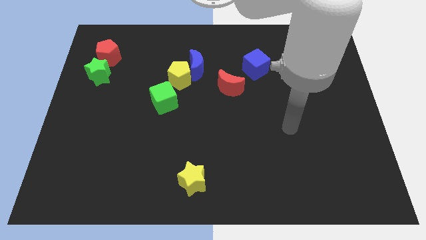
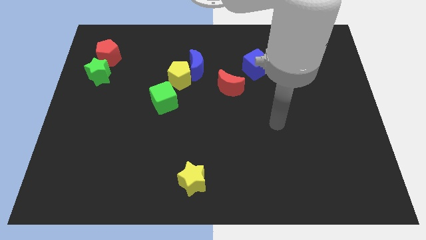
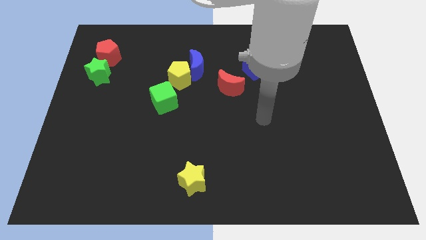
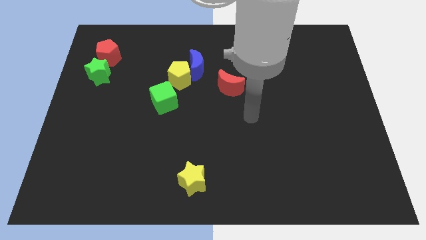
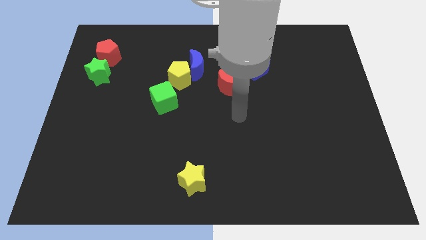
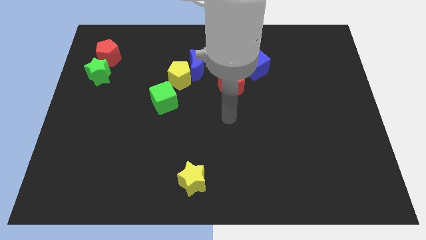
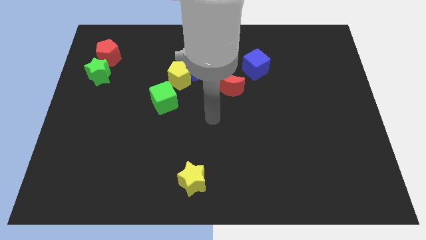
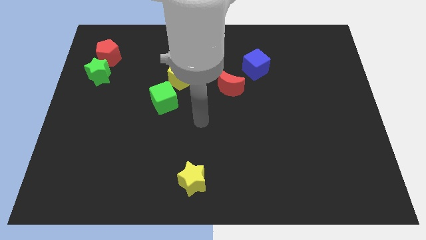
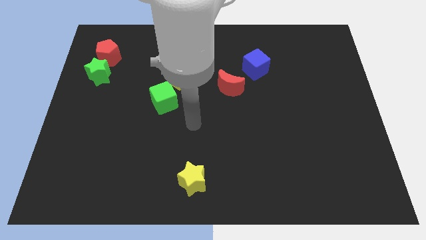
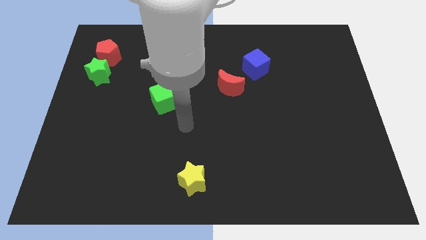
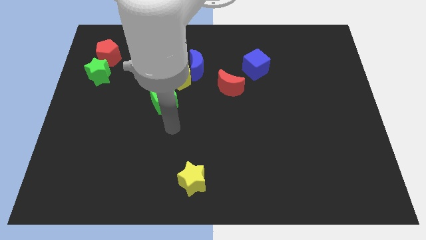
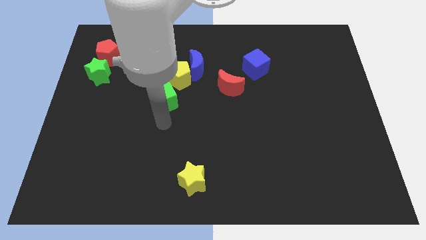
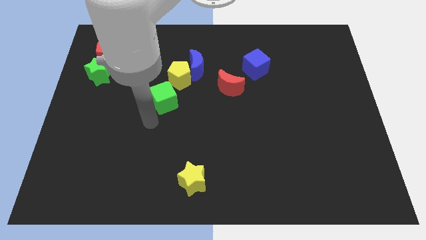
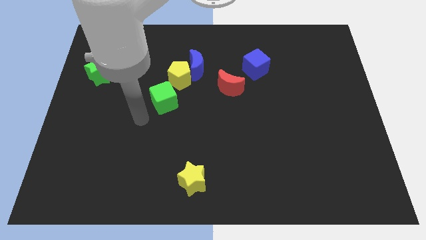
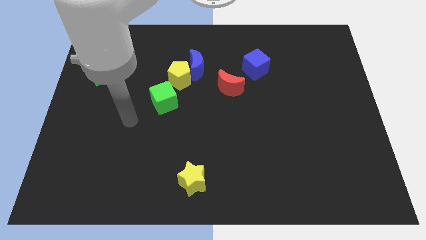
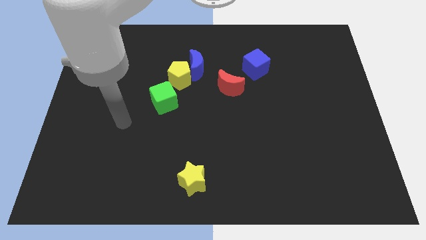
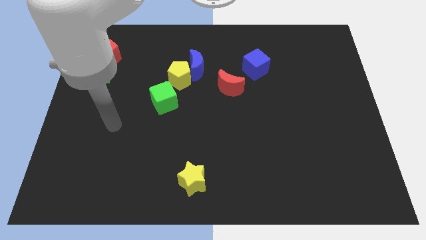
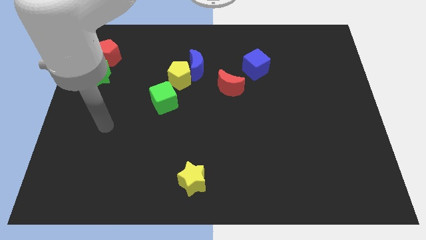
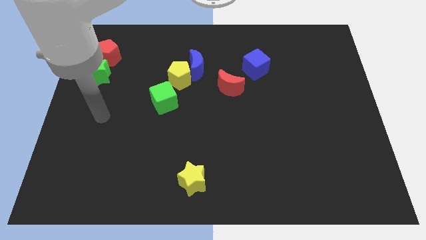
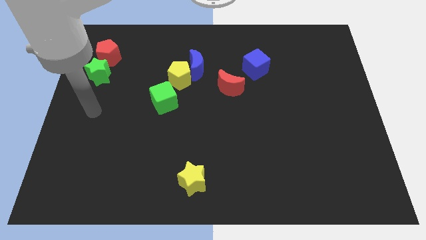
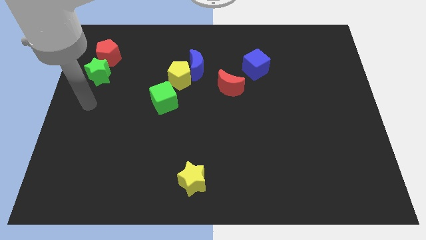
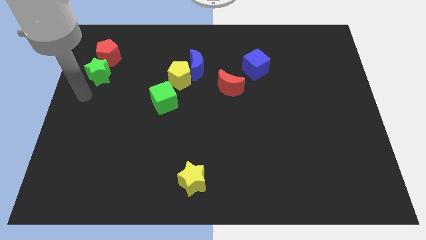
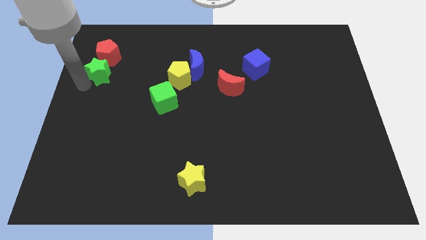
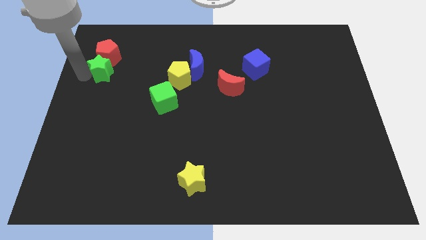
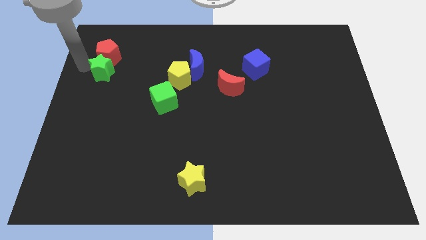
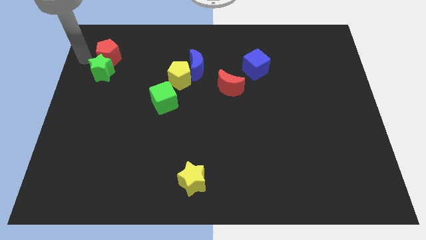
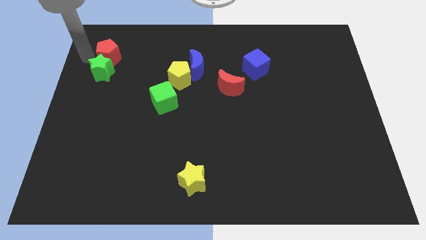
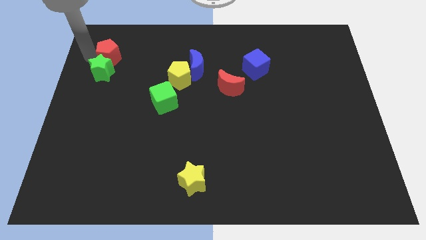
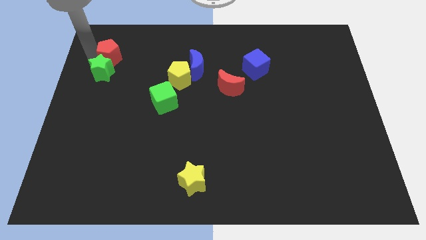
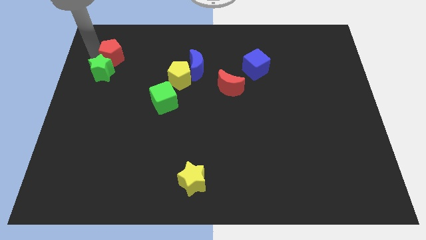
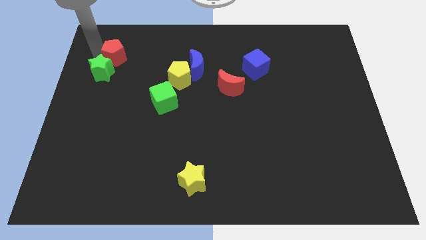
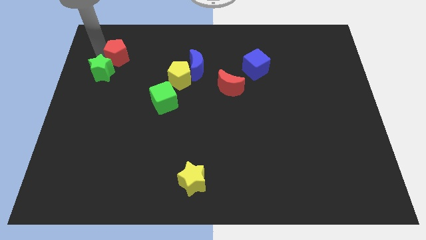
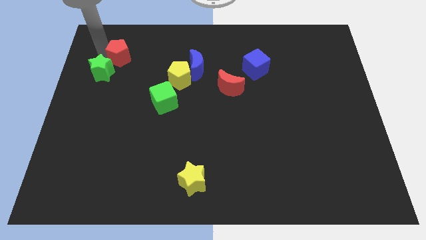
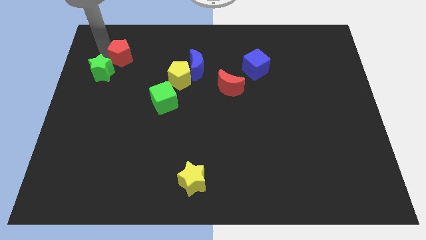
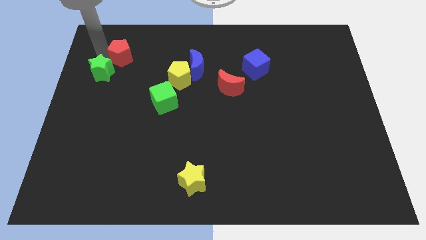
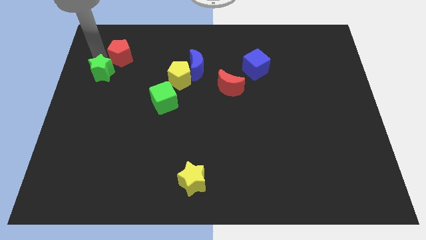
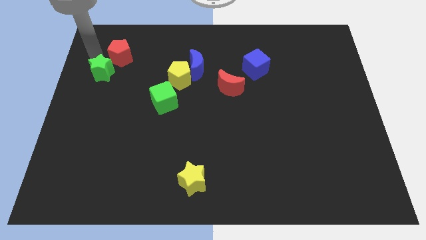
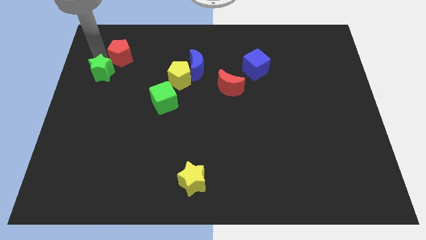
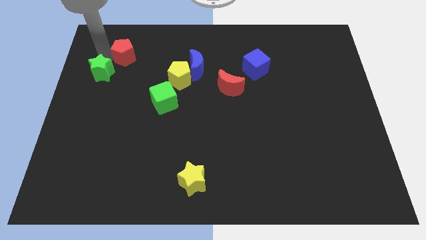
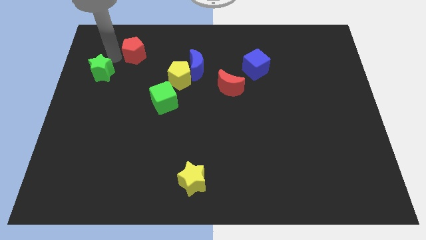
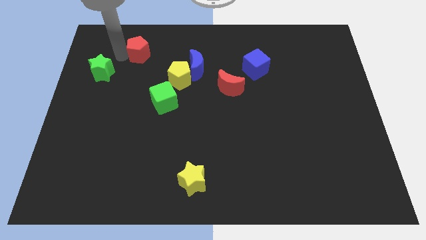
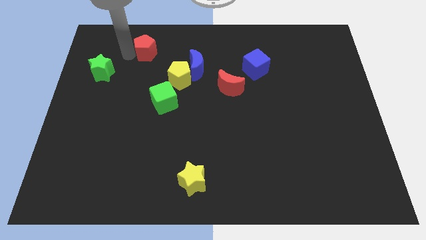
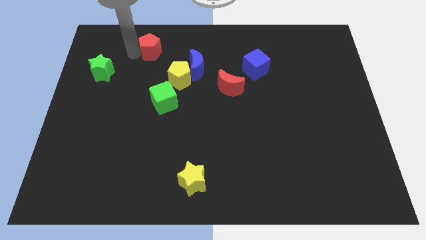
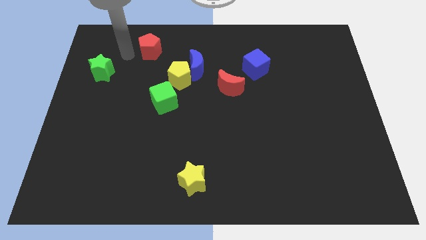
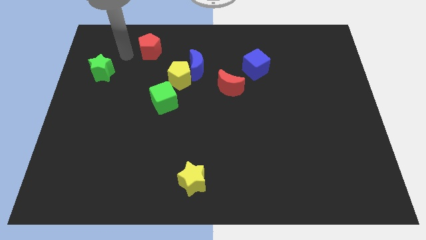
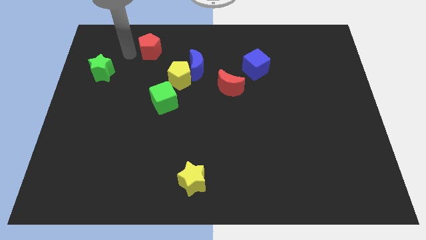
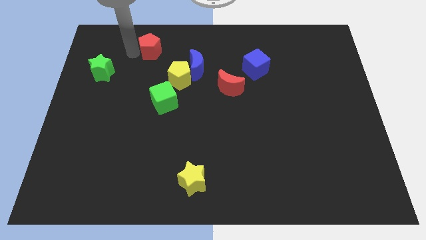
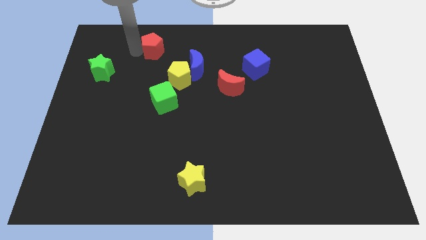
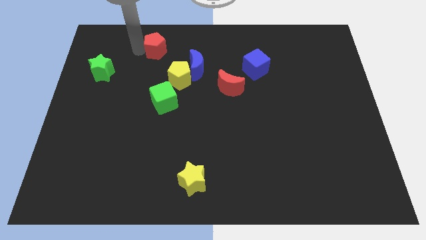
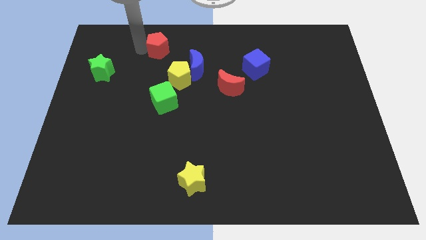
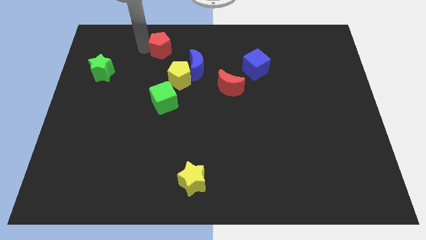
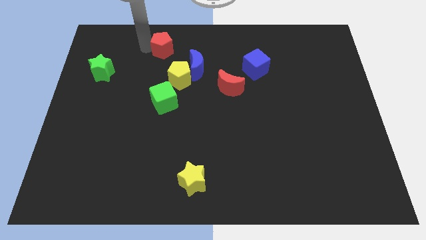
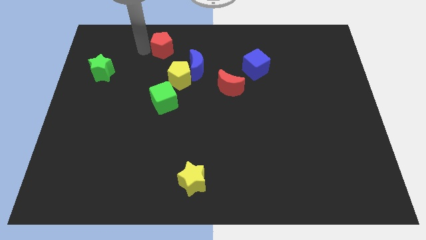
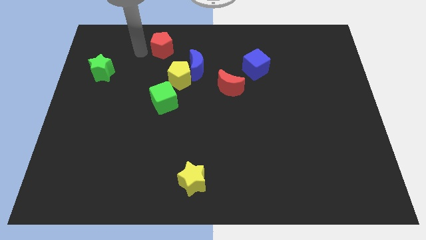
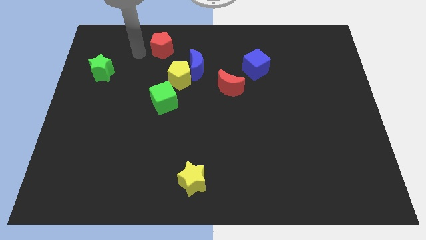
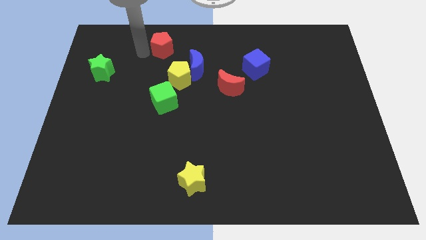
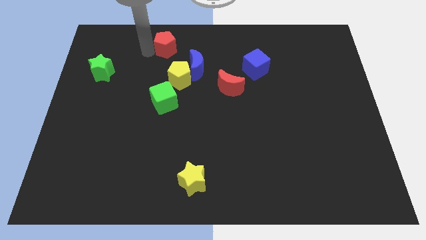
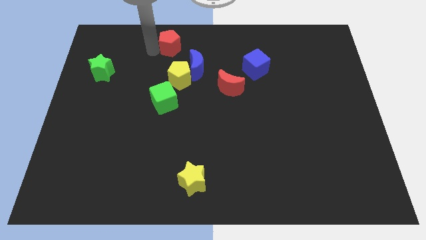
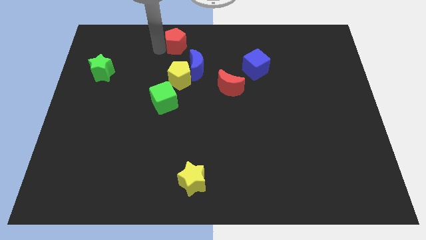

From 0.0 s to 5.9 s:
move the red pentagon to the top side

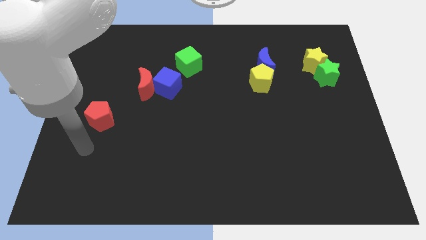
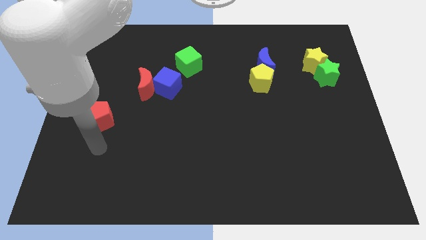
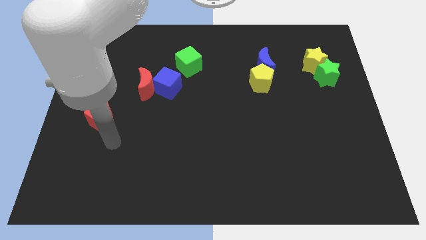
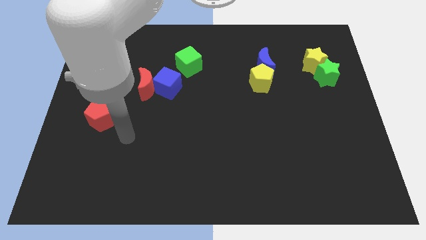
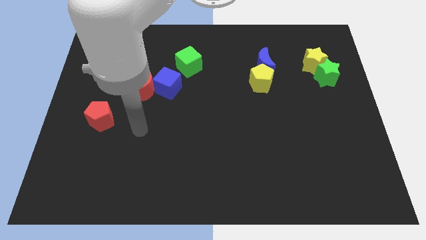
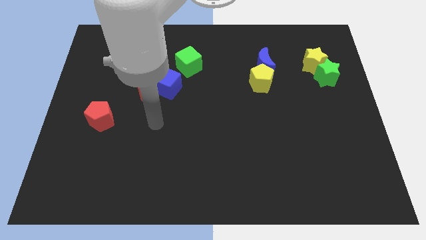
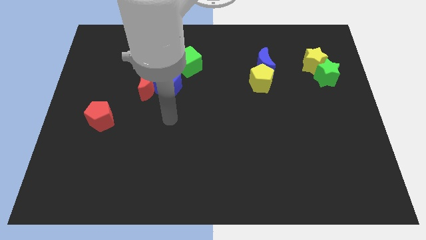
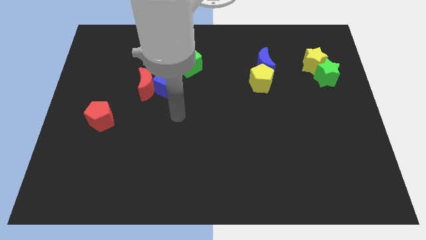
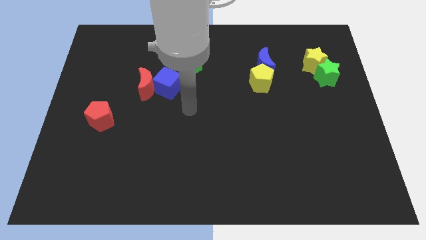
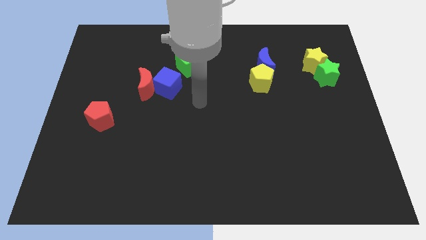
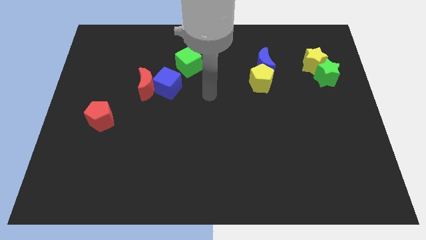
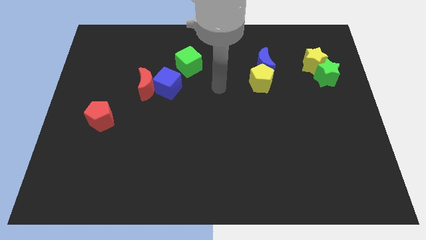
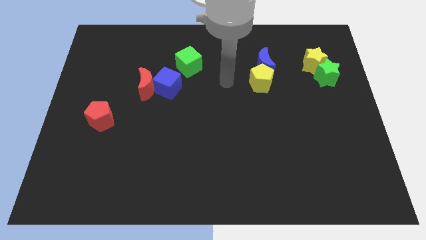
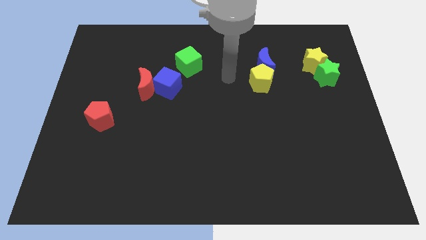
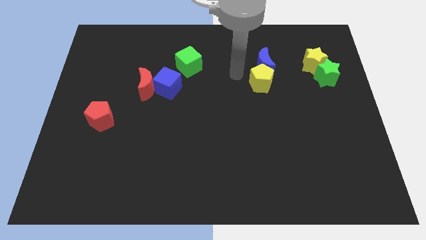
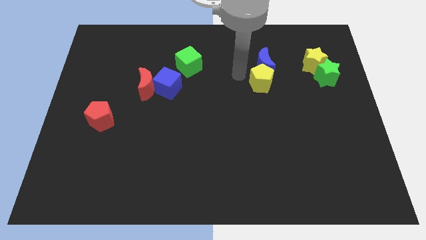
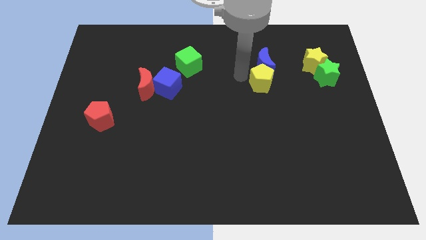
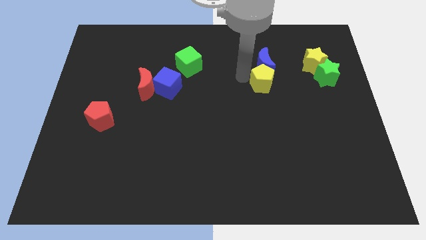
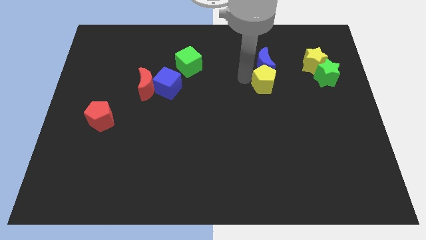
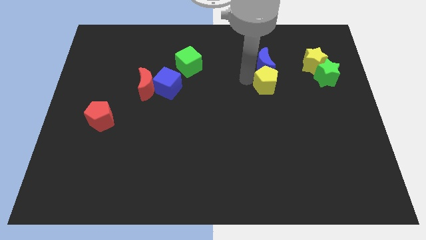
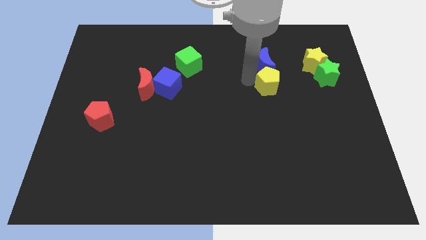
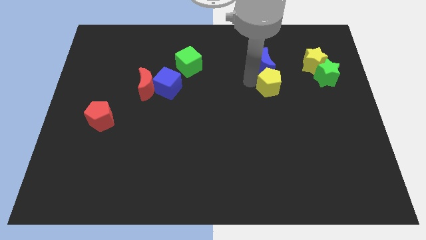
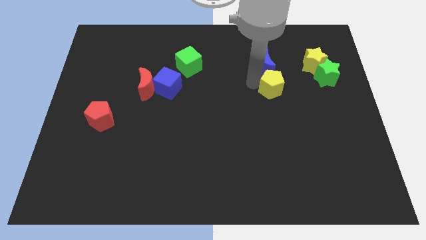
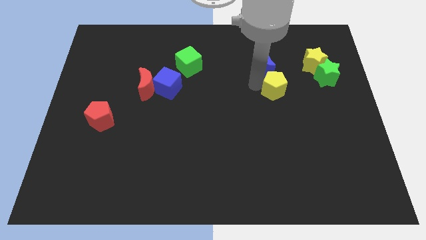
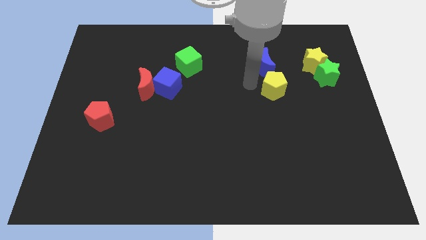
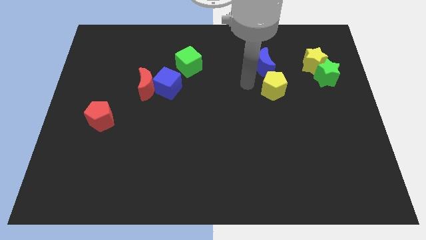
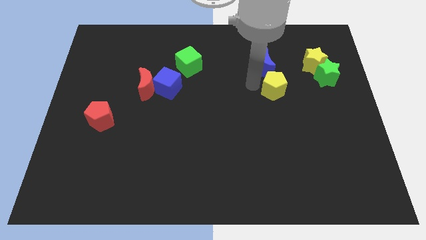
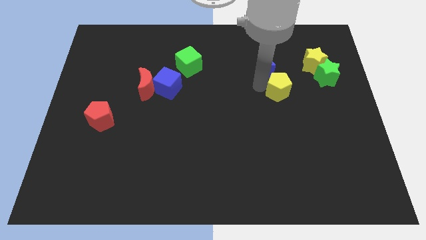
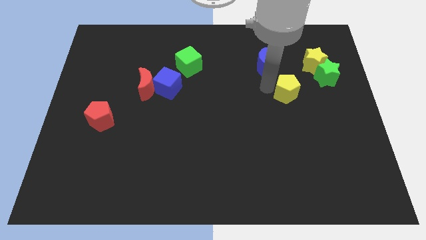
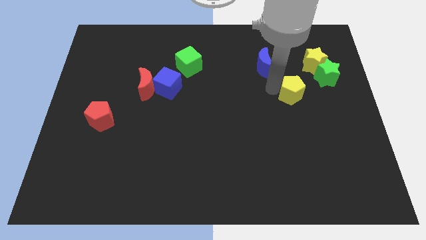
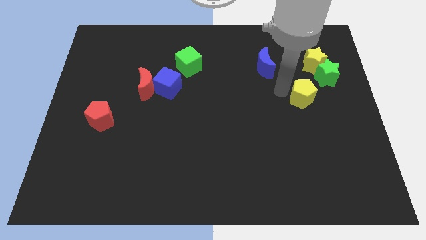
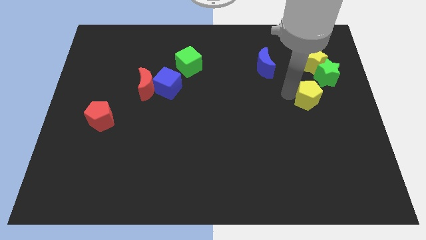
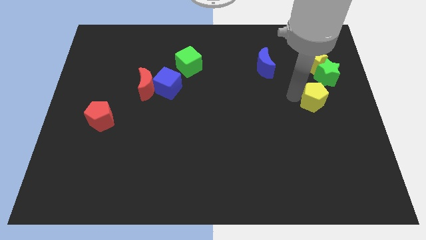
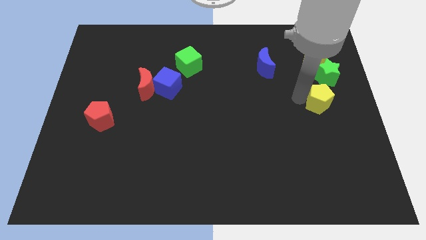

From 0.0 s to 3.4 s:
slide the yellow pentagon to the center right
